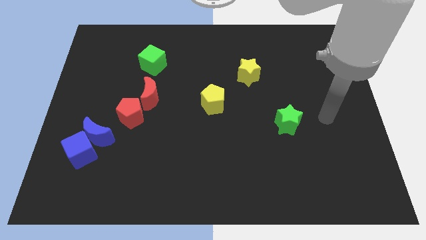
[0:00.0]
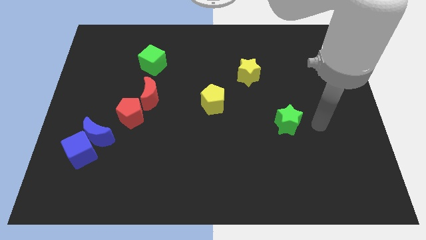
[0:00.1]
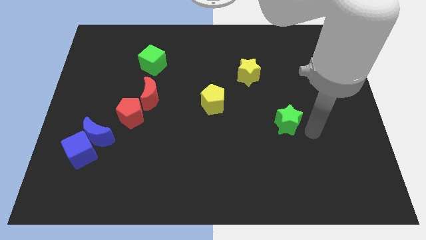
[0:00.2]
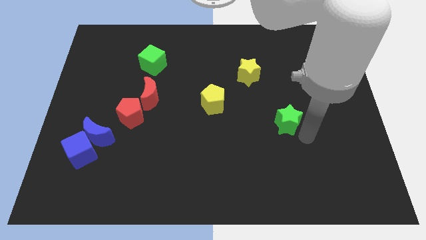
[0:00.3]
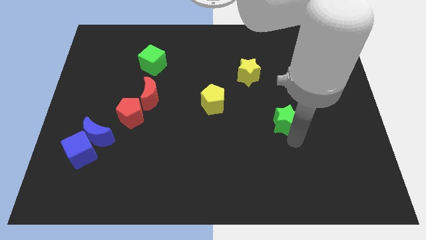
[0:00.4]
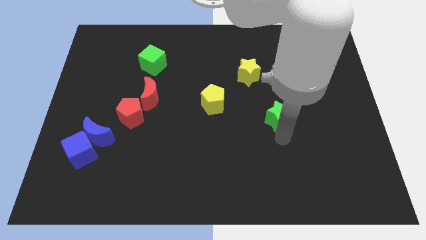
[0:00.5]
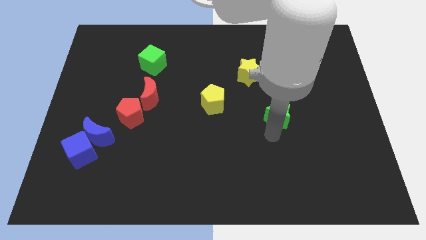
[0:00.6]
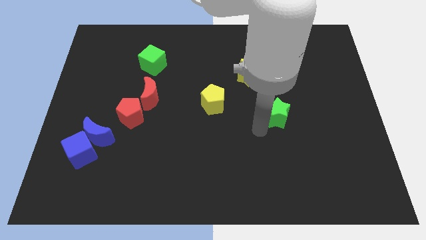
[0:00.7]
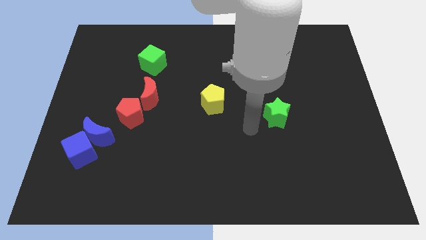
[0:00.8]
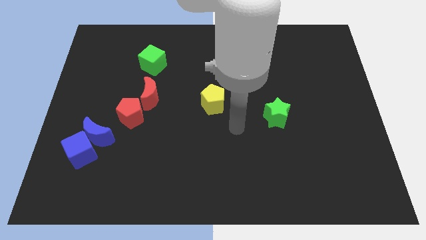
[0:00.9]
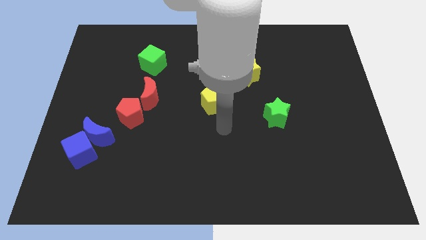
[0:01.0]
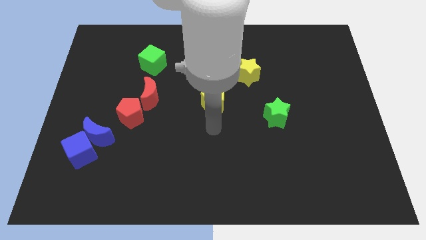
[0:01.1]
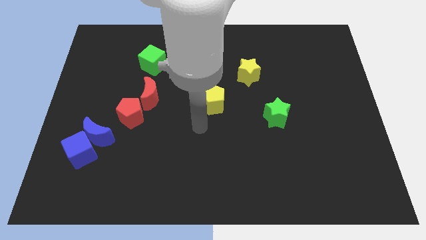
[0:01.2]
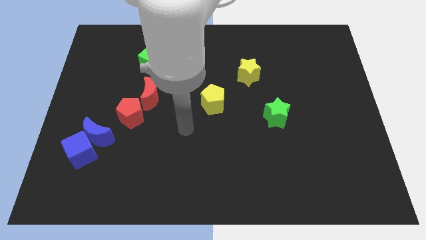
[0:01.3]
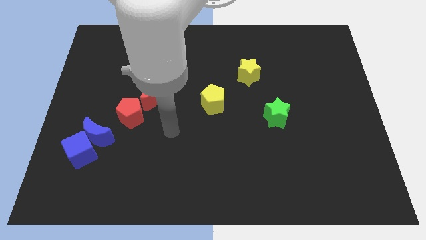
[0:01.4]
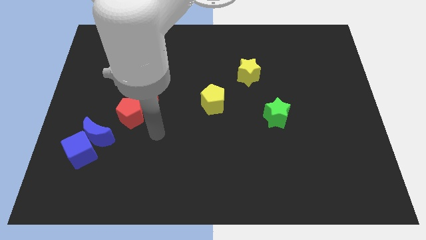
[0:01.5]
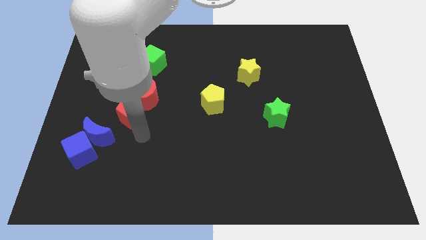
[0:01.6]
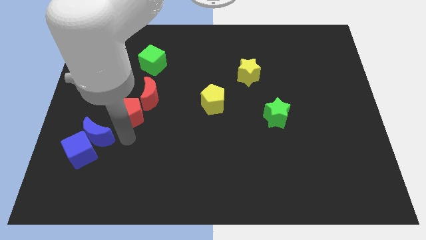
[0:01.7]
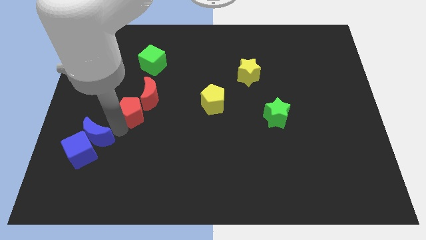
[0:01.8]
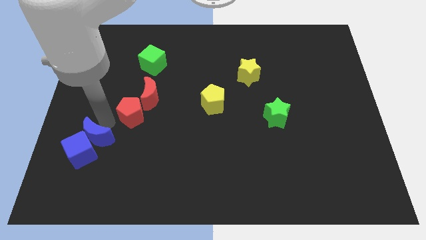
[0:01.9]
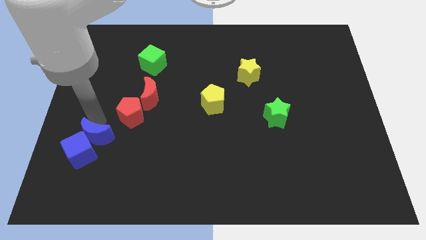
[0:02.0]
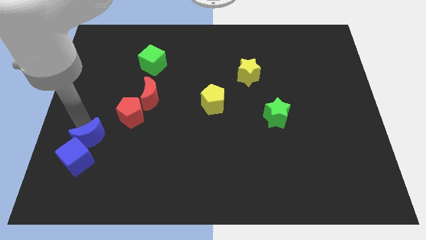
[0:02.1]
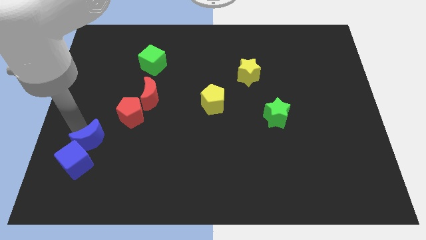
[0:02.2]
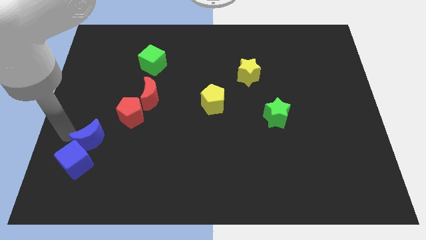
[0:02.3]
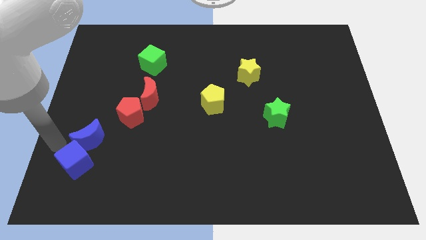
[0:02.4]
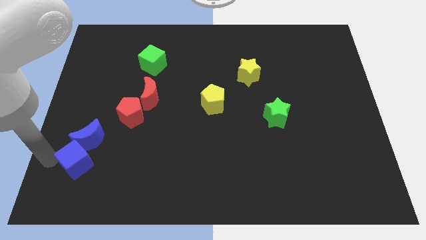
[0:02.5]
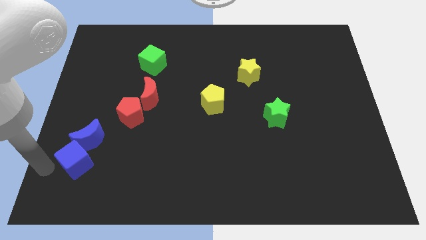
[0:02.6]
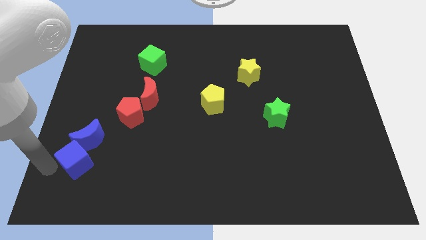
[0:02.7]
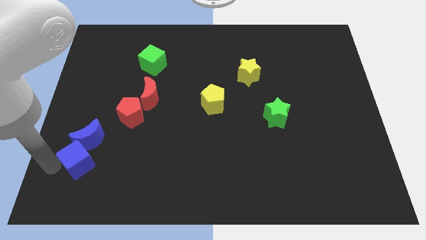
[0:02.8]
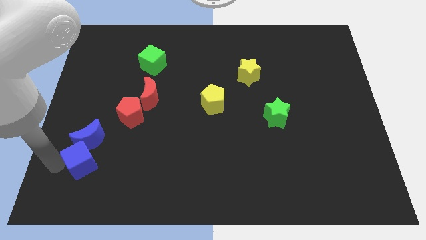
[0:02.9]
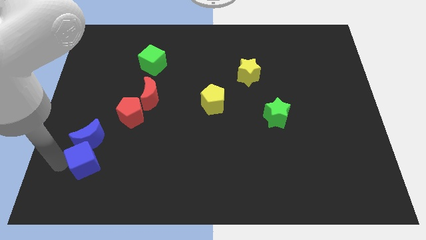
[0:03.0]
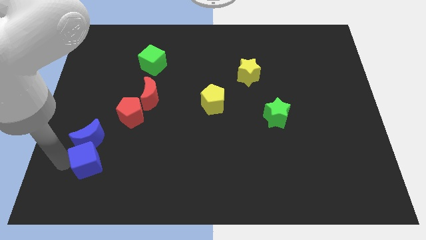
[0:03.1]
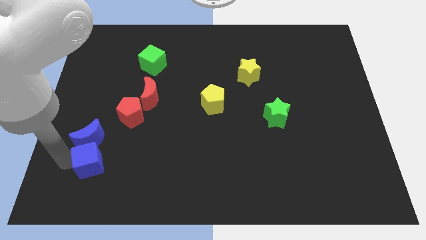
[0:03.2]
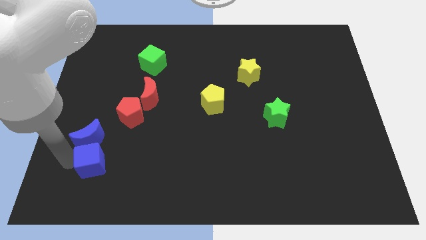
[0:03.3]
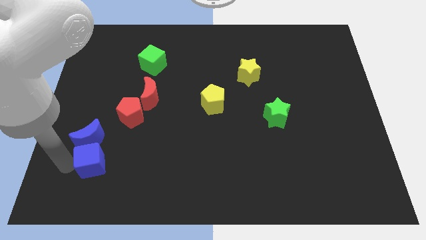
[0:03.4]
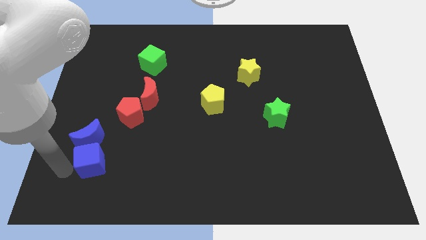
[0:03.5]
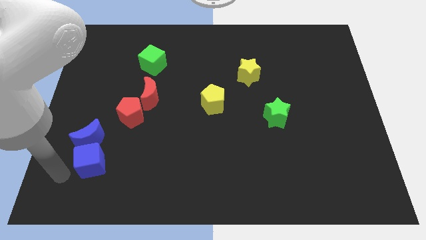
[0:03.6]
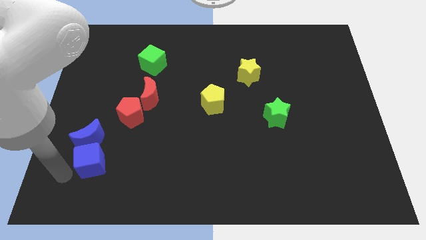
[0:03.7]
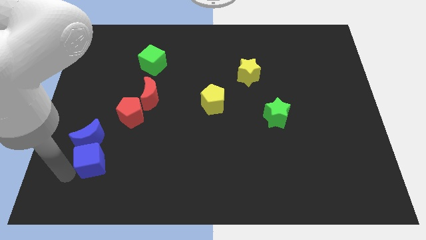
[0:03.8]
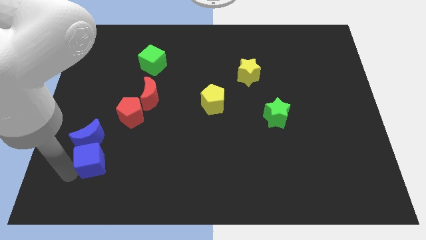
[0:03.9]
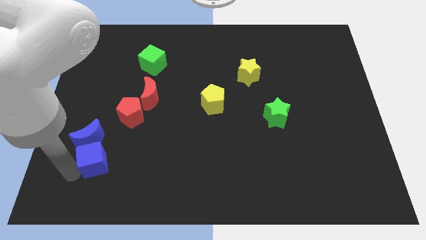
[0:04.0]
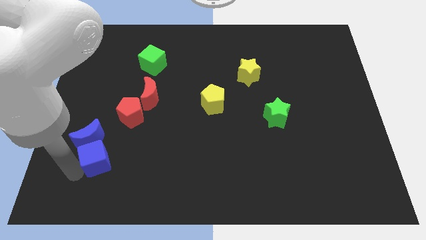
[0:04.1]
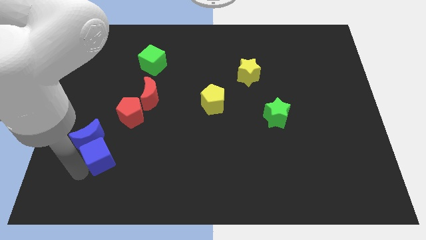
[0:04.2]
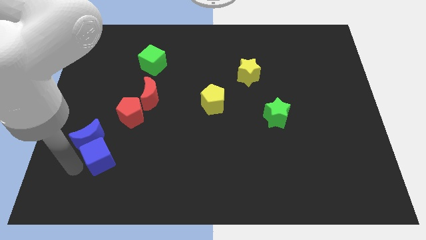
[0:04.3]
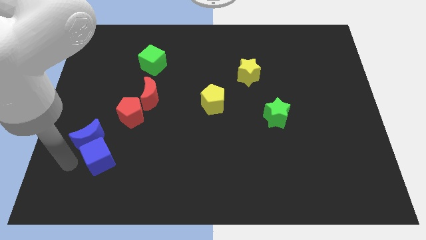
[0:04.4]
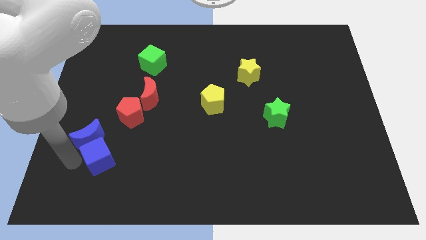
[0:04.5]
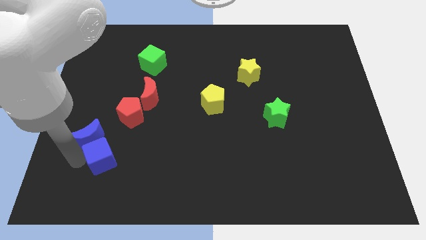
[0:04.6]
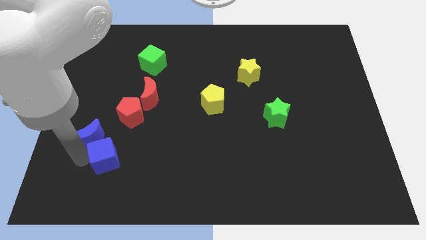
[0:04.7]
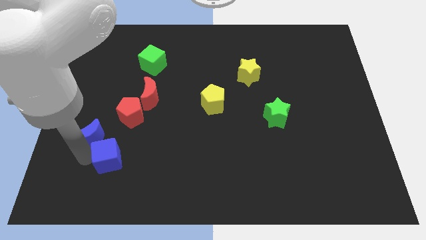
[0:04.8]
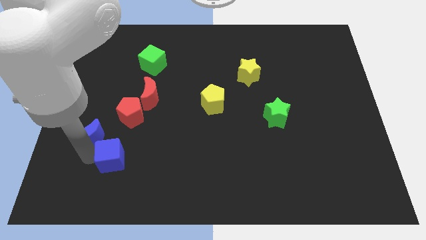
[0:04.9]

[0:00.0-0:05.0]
slightly push the blue cube to the right

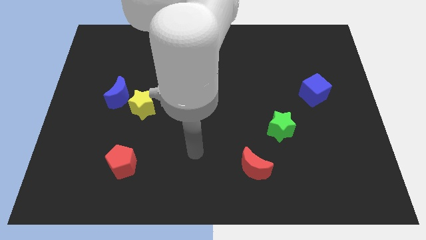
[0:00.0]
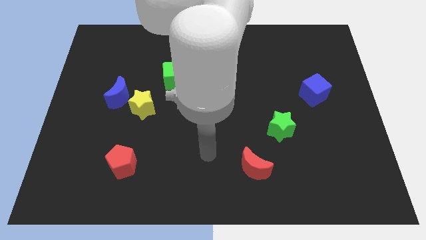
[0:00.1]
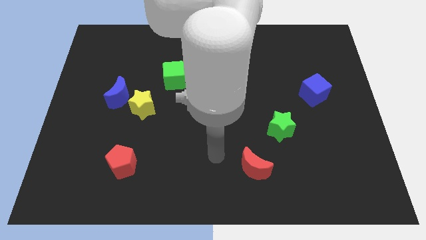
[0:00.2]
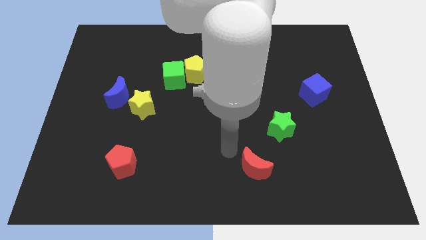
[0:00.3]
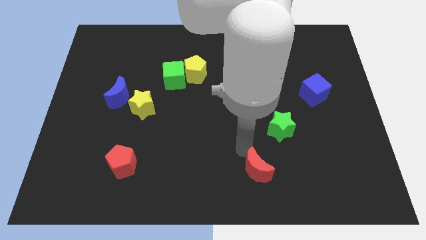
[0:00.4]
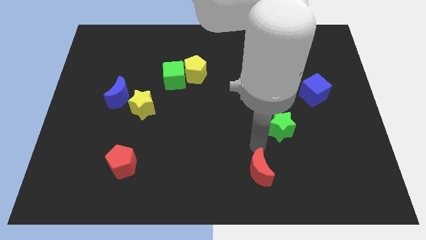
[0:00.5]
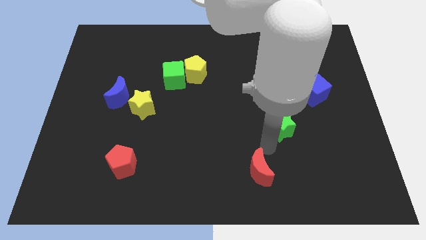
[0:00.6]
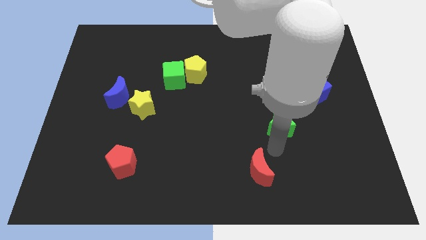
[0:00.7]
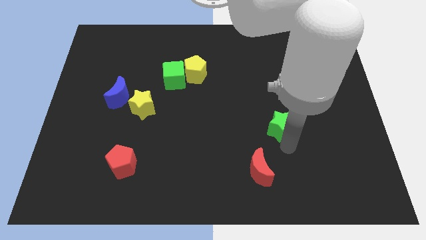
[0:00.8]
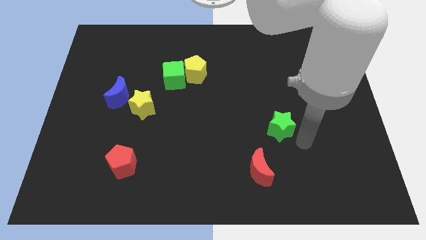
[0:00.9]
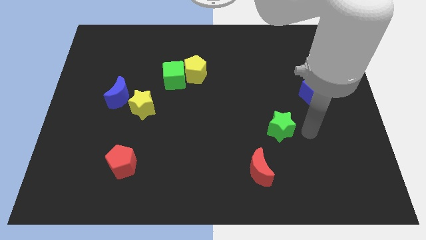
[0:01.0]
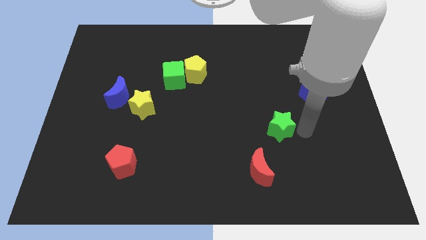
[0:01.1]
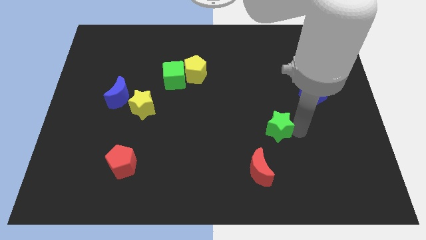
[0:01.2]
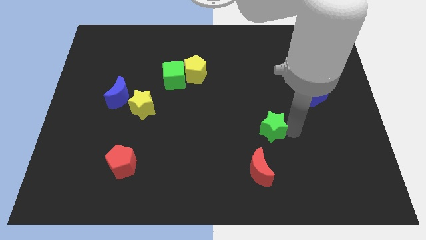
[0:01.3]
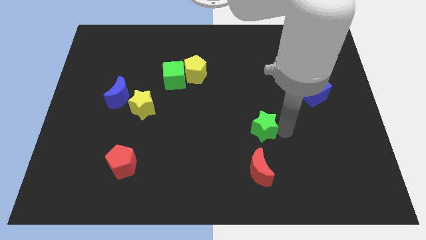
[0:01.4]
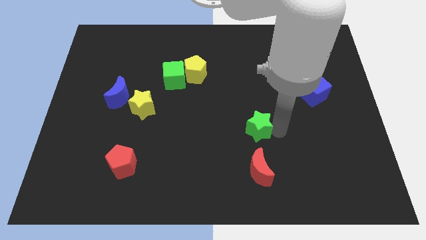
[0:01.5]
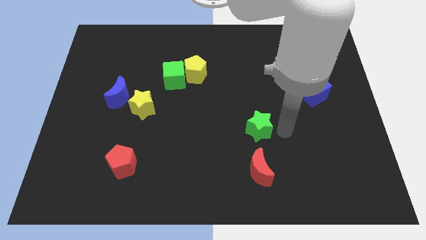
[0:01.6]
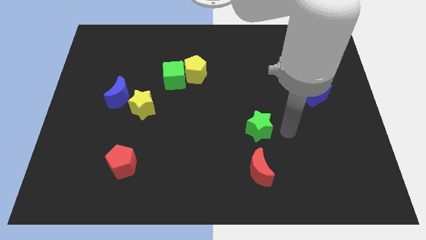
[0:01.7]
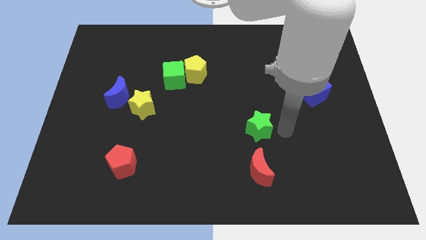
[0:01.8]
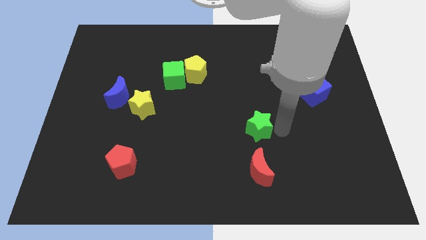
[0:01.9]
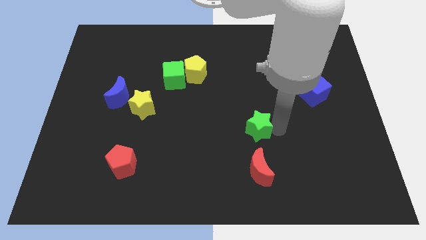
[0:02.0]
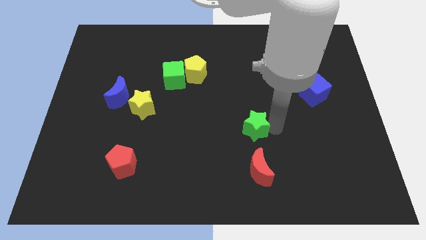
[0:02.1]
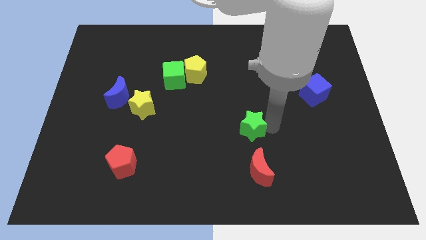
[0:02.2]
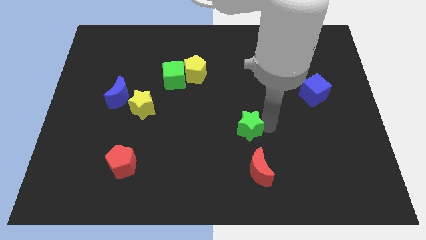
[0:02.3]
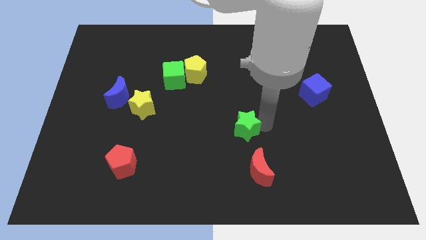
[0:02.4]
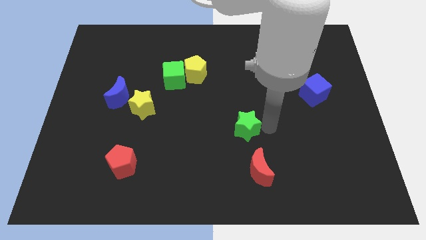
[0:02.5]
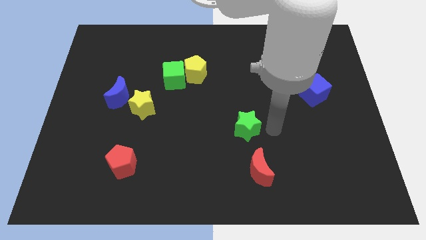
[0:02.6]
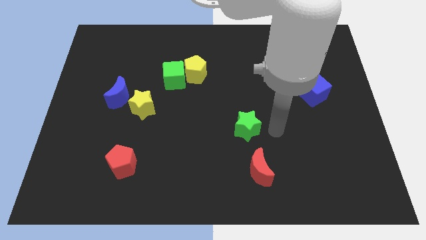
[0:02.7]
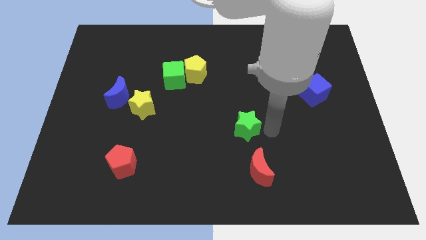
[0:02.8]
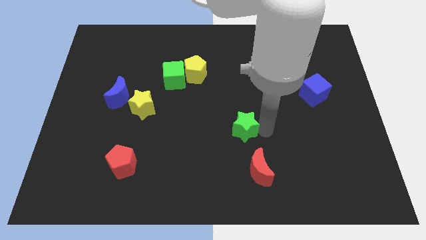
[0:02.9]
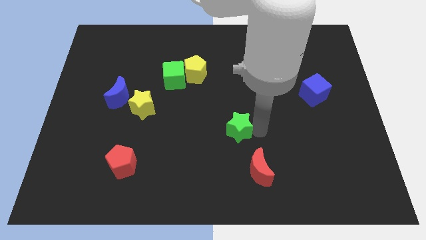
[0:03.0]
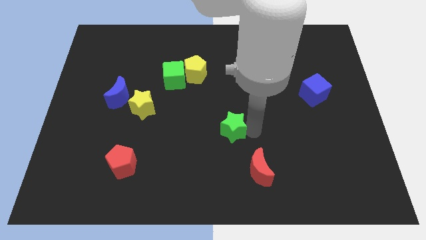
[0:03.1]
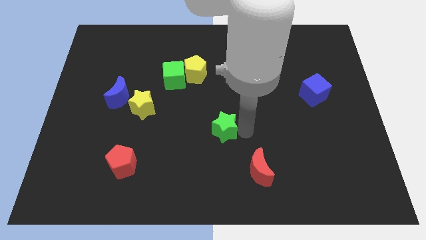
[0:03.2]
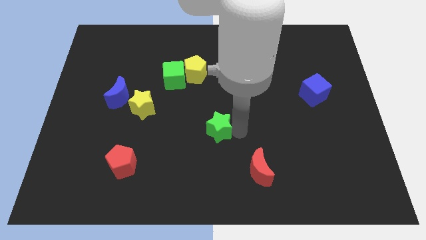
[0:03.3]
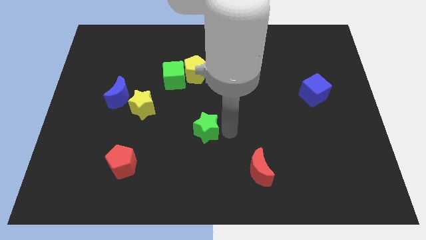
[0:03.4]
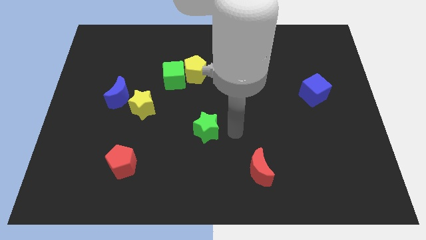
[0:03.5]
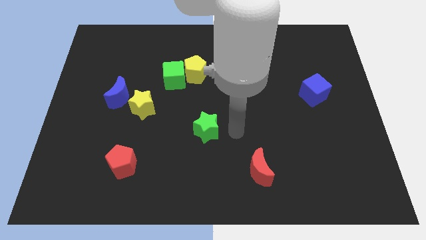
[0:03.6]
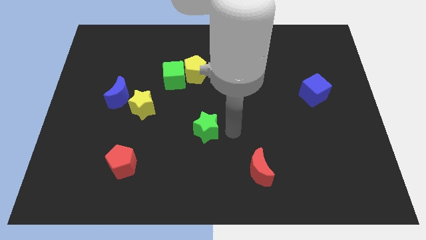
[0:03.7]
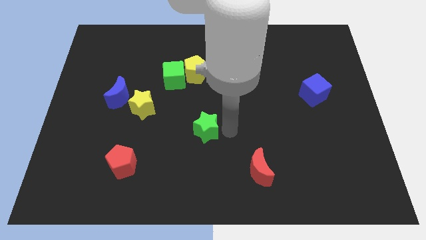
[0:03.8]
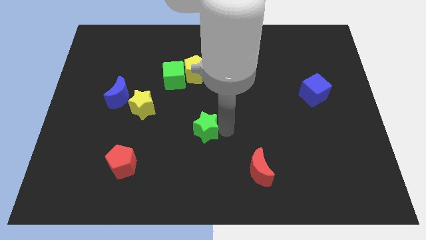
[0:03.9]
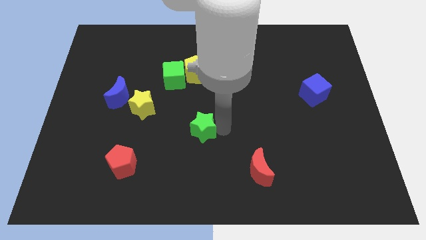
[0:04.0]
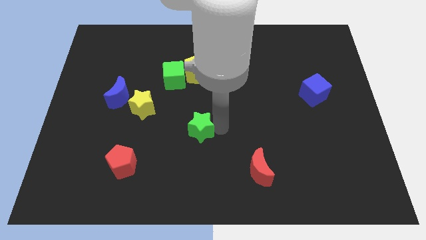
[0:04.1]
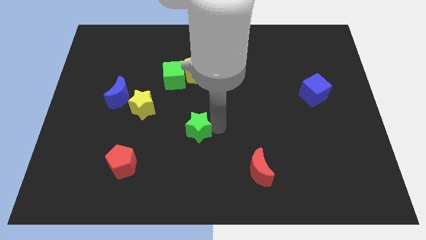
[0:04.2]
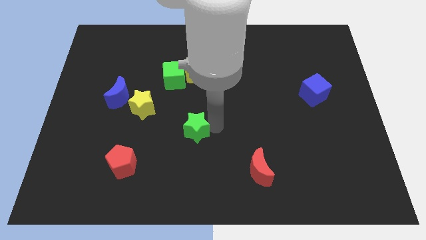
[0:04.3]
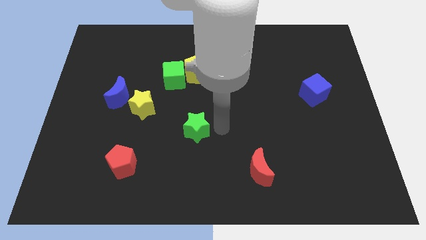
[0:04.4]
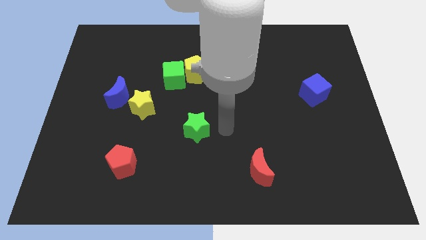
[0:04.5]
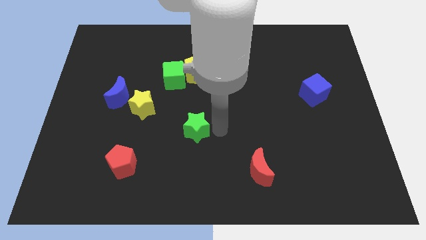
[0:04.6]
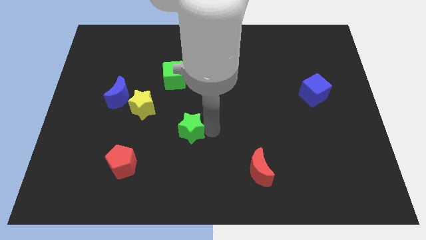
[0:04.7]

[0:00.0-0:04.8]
slide the green star left
